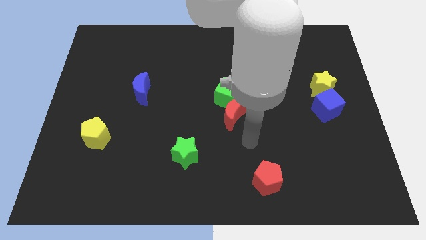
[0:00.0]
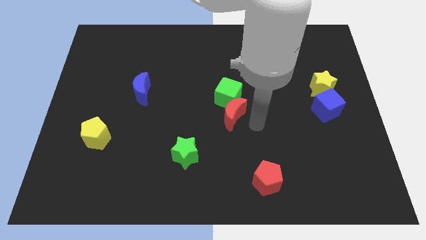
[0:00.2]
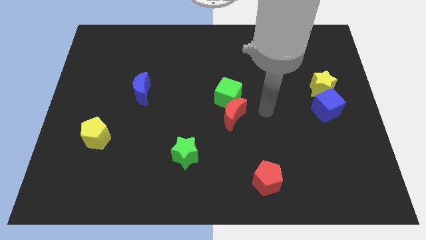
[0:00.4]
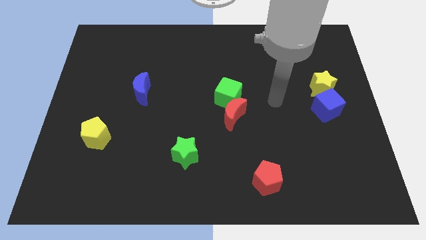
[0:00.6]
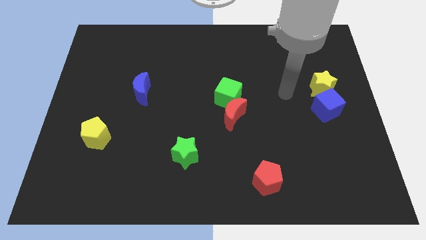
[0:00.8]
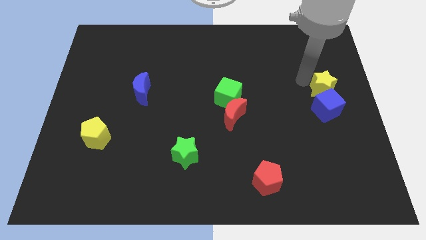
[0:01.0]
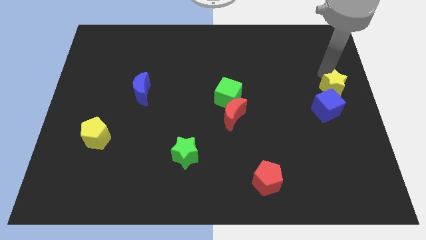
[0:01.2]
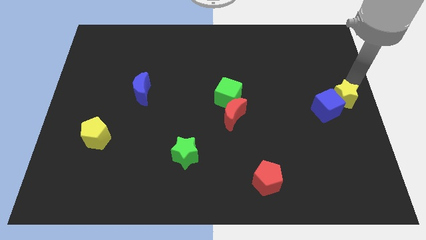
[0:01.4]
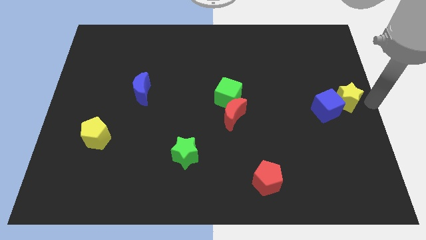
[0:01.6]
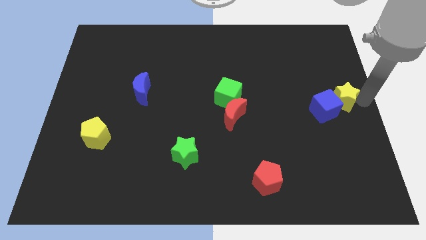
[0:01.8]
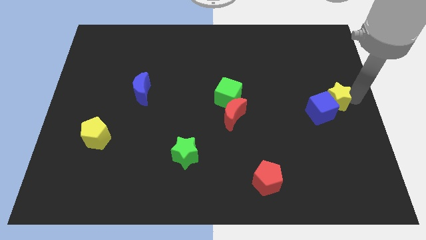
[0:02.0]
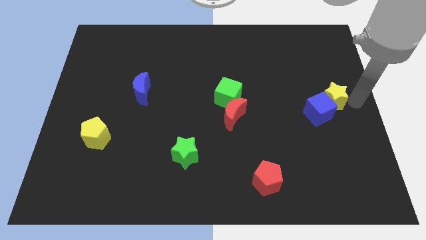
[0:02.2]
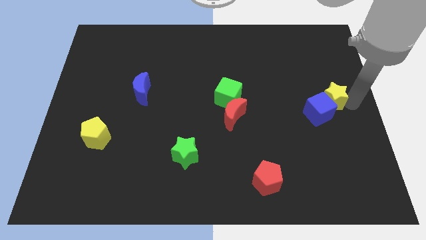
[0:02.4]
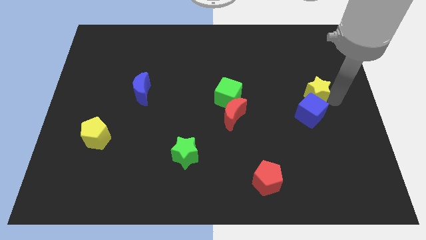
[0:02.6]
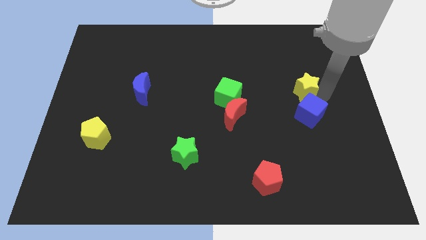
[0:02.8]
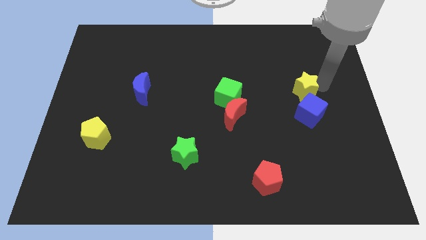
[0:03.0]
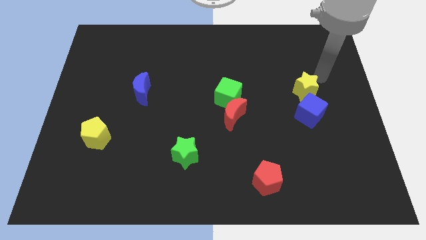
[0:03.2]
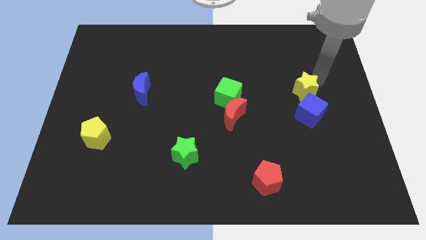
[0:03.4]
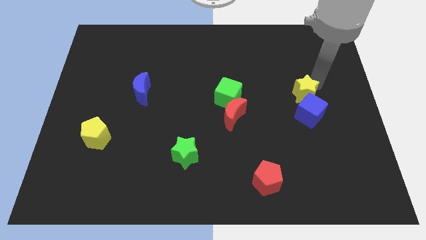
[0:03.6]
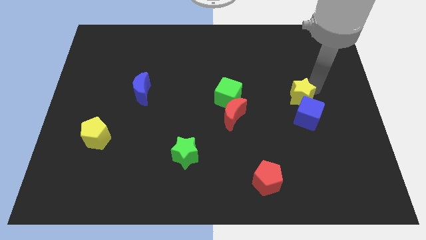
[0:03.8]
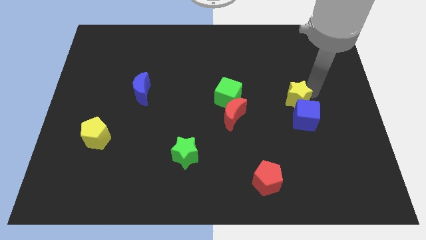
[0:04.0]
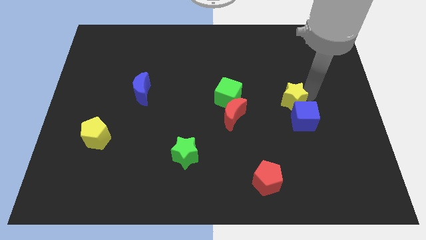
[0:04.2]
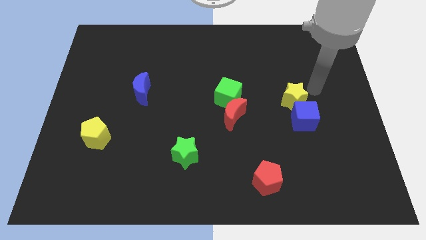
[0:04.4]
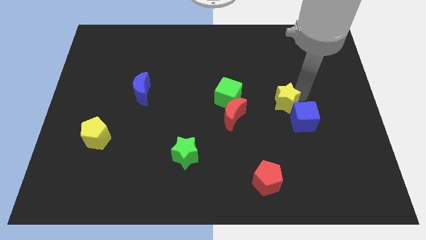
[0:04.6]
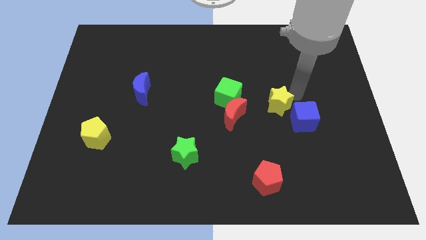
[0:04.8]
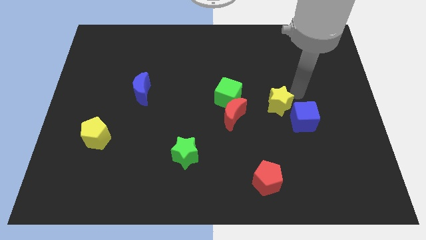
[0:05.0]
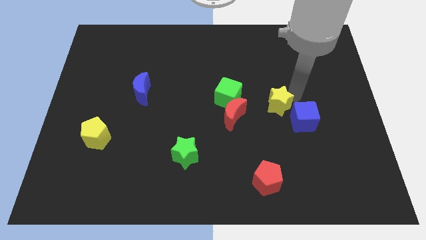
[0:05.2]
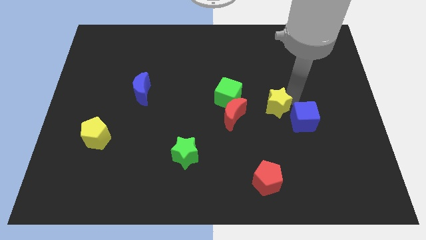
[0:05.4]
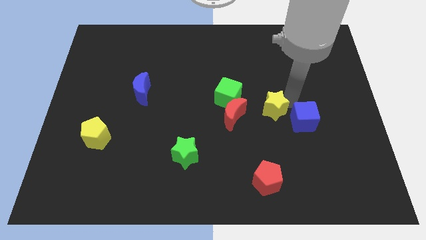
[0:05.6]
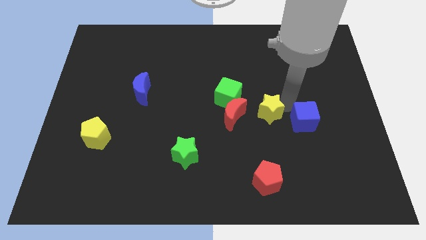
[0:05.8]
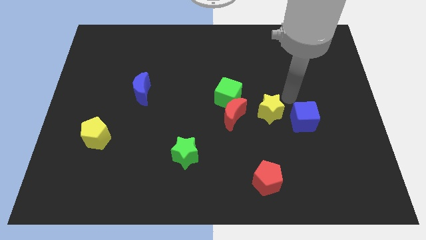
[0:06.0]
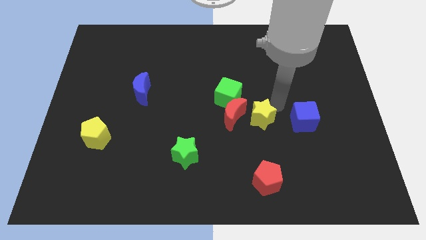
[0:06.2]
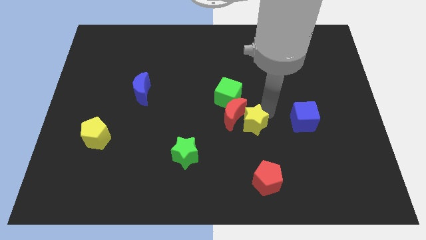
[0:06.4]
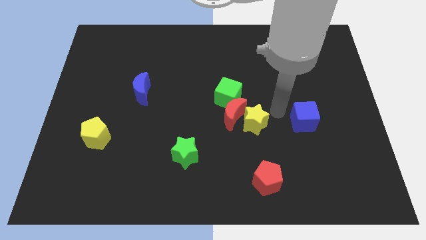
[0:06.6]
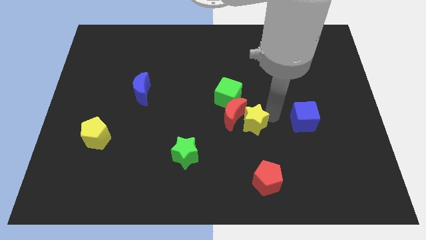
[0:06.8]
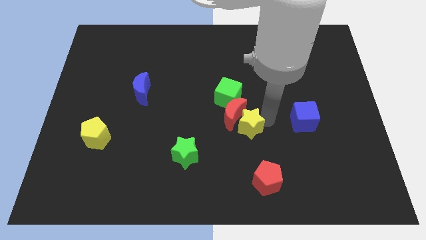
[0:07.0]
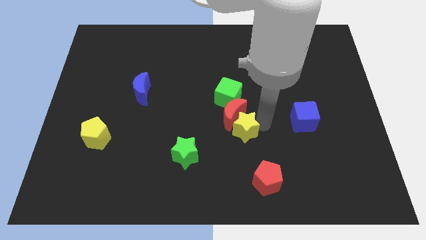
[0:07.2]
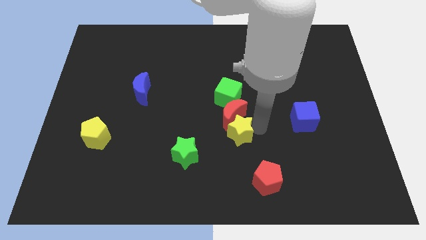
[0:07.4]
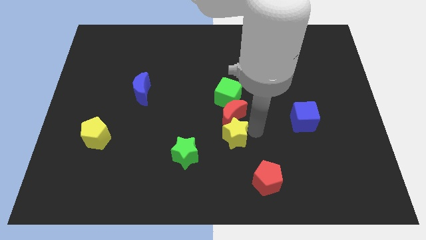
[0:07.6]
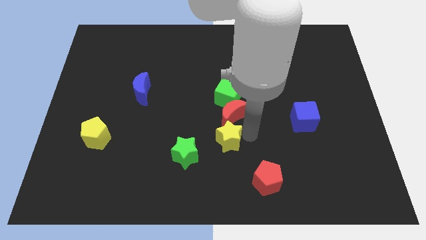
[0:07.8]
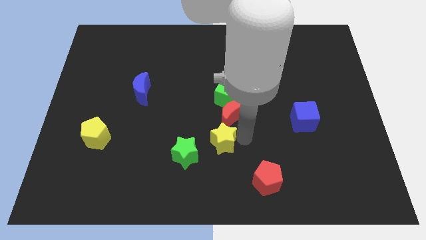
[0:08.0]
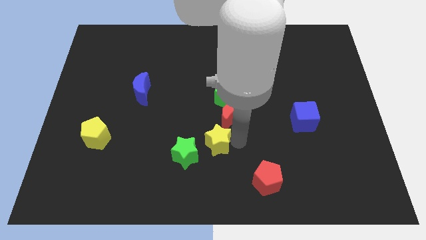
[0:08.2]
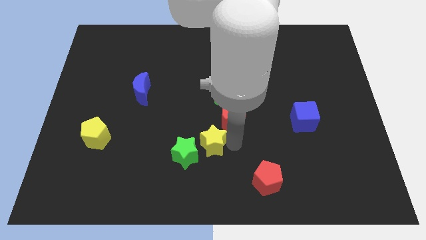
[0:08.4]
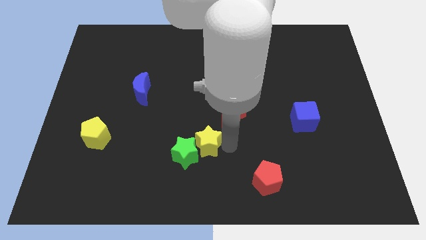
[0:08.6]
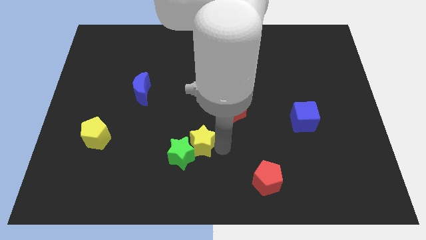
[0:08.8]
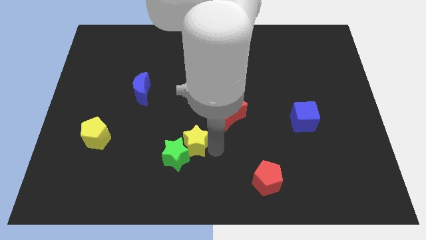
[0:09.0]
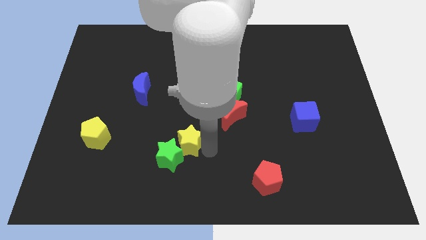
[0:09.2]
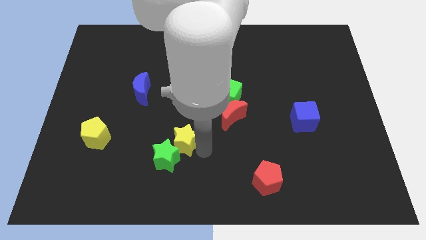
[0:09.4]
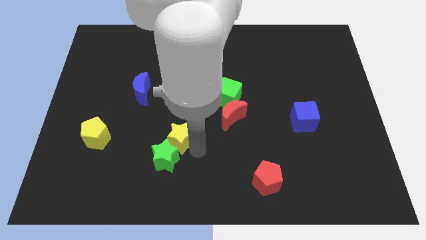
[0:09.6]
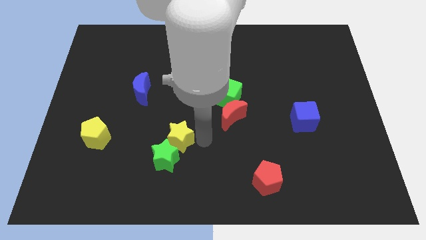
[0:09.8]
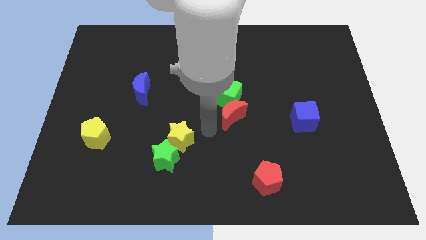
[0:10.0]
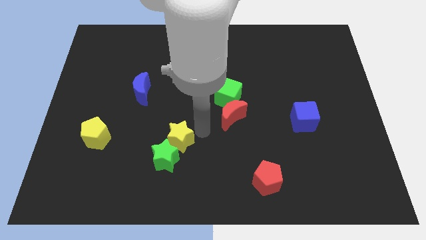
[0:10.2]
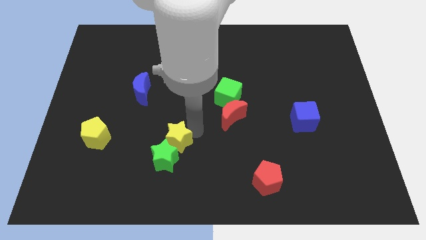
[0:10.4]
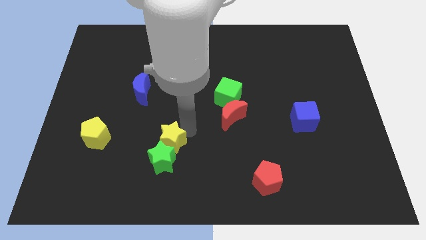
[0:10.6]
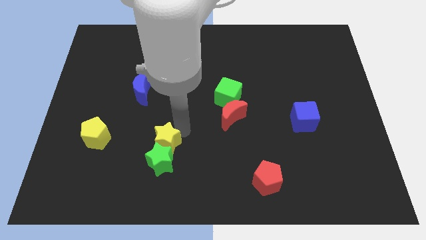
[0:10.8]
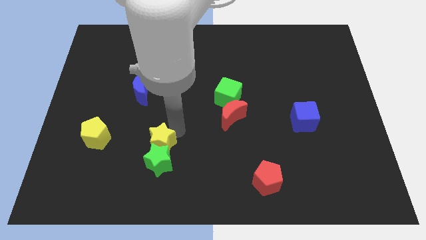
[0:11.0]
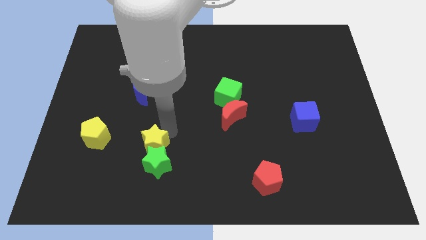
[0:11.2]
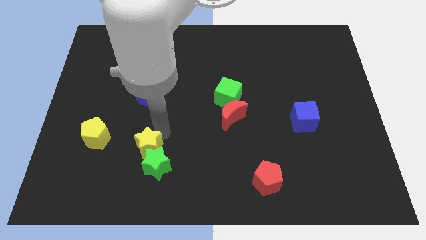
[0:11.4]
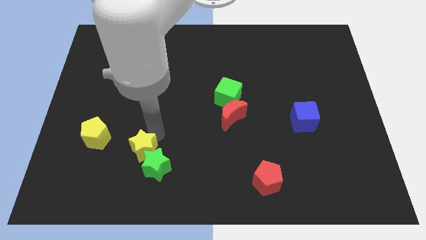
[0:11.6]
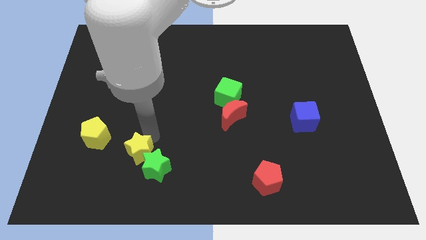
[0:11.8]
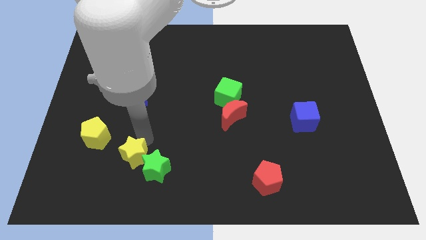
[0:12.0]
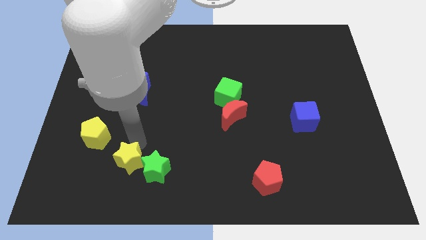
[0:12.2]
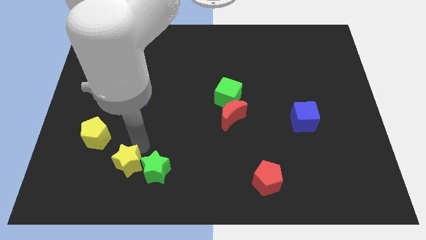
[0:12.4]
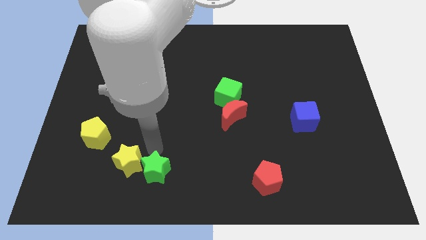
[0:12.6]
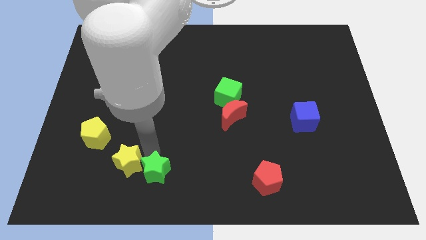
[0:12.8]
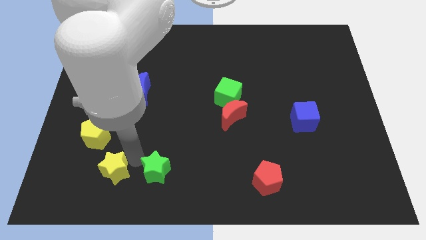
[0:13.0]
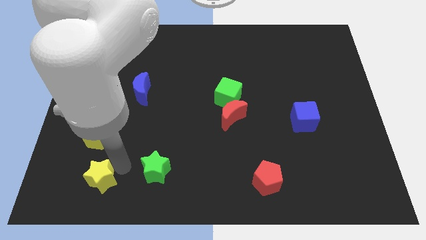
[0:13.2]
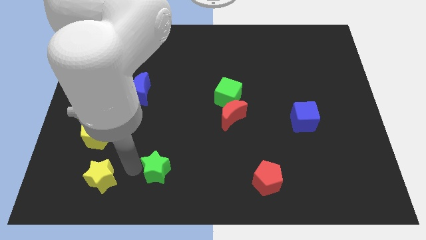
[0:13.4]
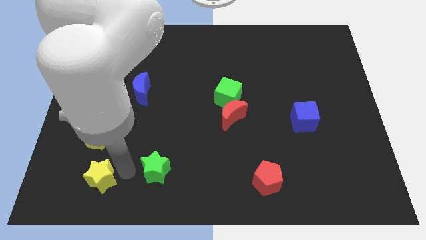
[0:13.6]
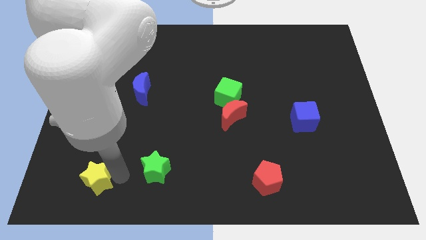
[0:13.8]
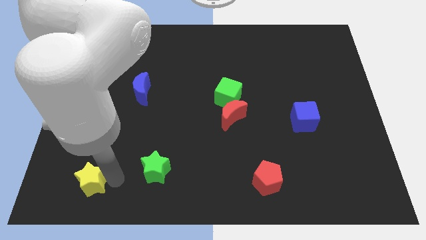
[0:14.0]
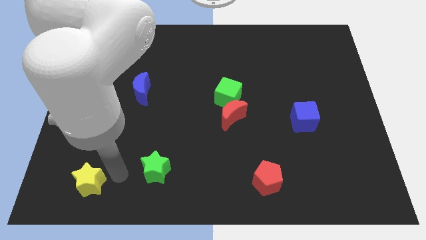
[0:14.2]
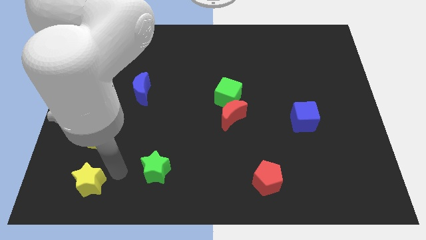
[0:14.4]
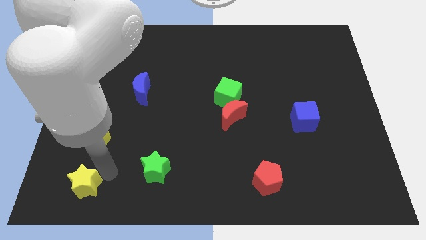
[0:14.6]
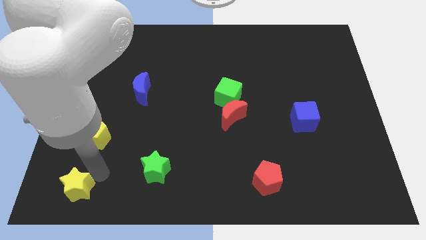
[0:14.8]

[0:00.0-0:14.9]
move the yellow star to the lower left corner
